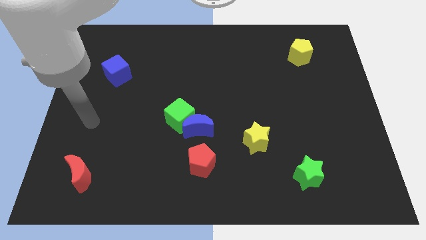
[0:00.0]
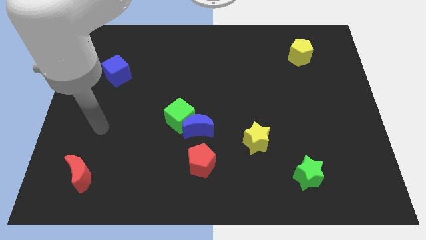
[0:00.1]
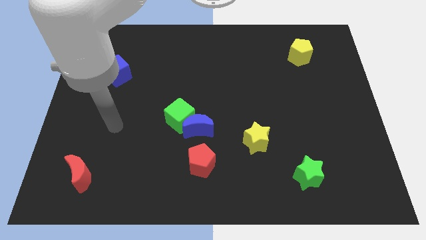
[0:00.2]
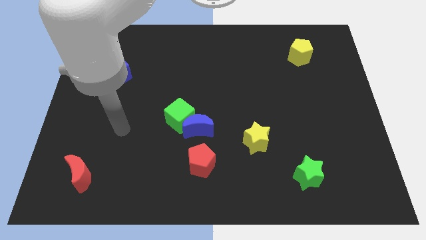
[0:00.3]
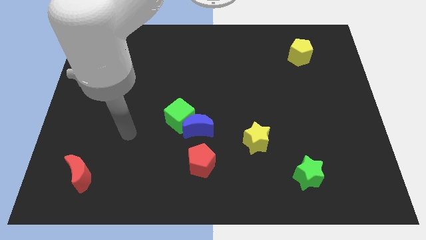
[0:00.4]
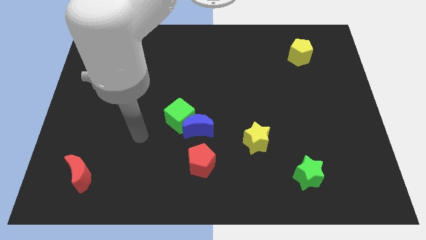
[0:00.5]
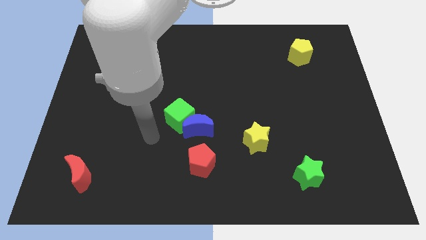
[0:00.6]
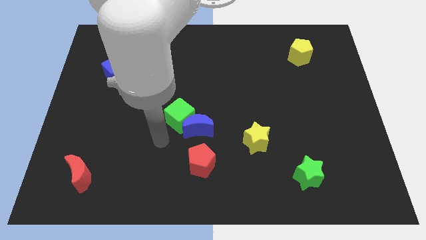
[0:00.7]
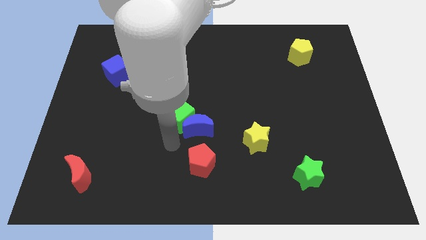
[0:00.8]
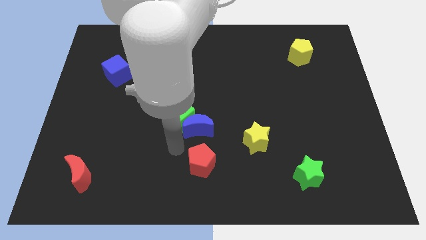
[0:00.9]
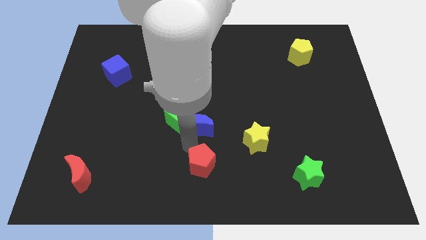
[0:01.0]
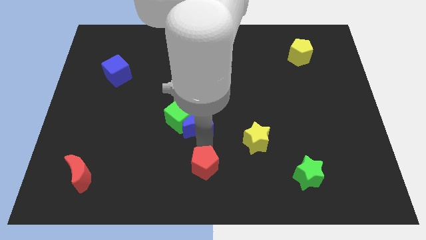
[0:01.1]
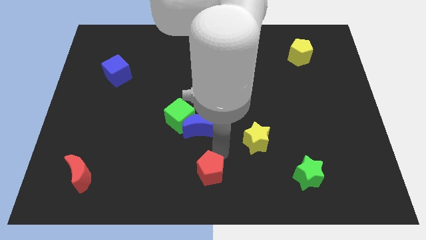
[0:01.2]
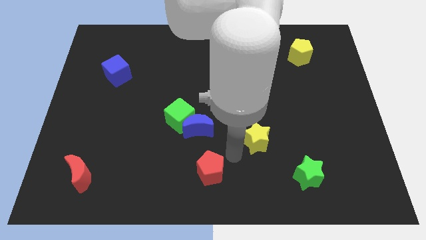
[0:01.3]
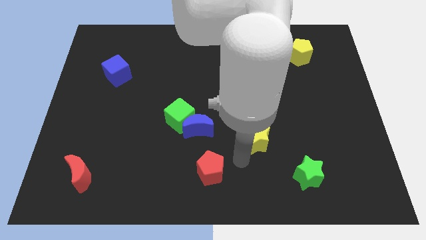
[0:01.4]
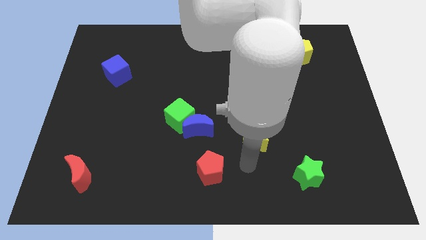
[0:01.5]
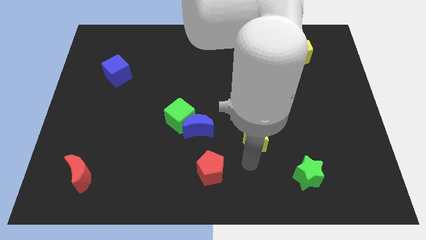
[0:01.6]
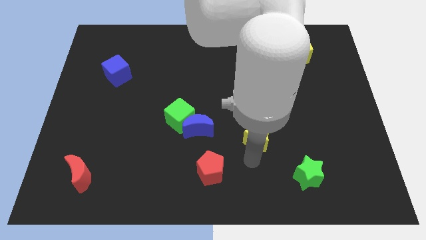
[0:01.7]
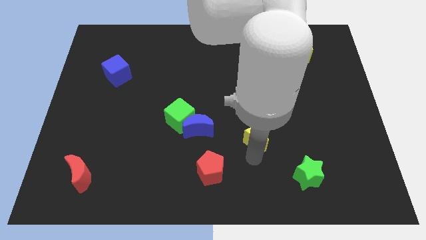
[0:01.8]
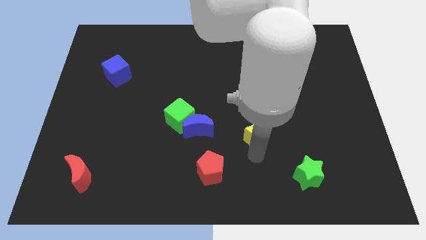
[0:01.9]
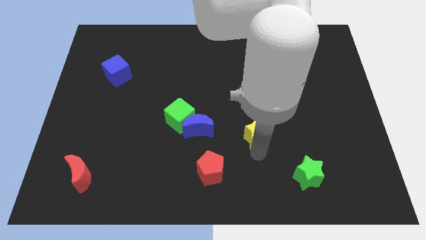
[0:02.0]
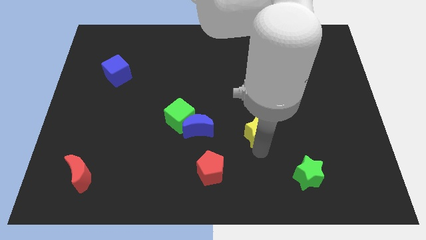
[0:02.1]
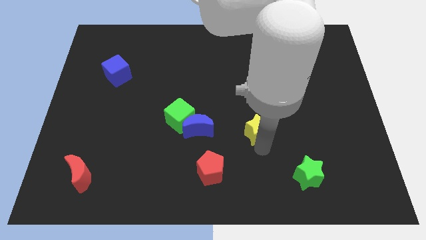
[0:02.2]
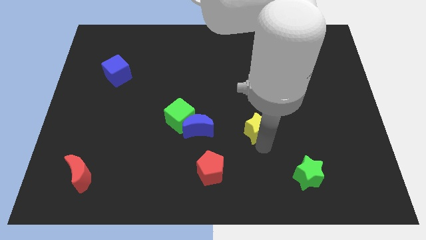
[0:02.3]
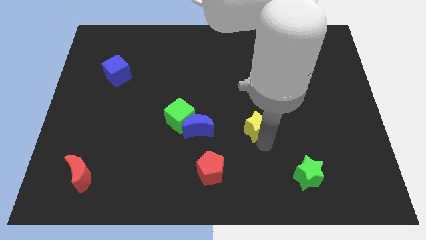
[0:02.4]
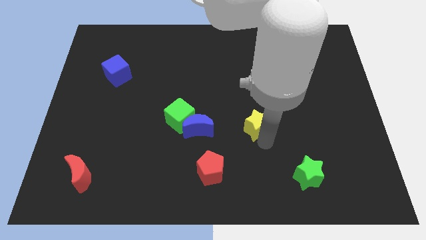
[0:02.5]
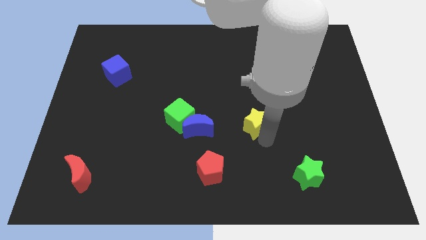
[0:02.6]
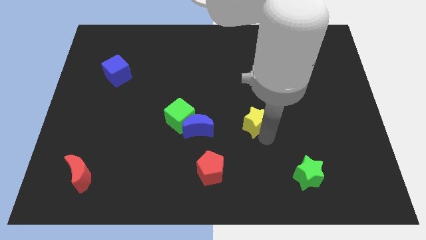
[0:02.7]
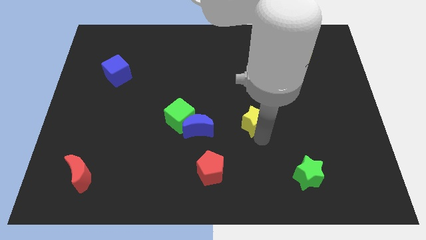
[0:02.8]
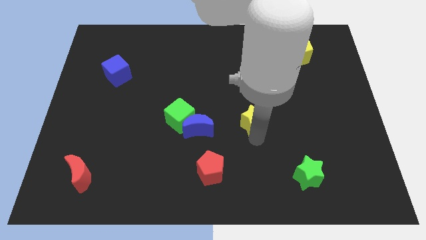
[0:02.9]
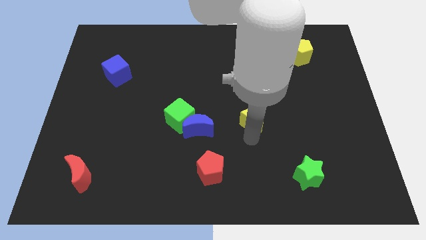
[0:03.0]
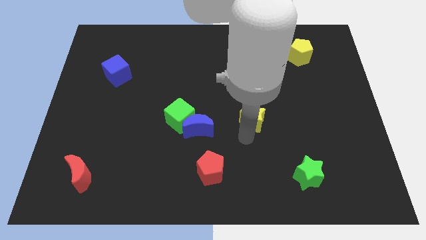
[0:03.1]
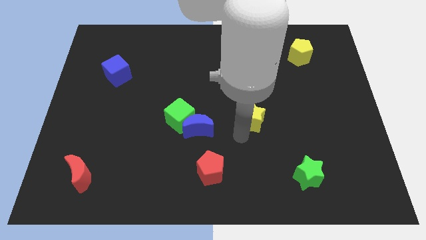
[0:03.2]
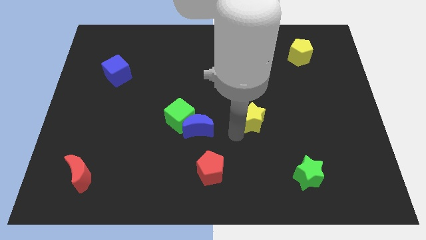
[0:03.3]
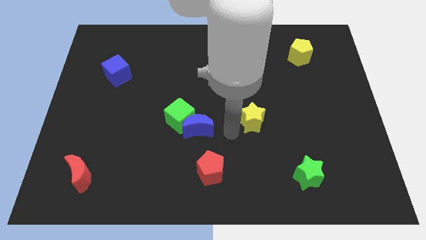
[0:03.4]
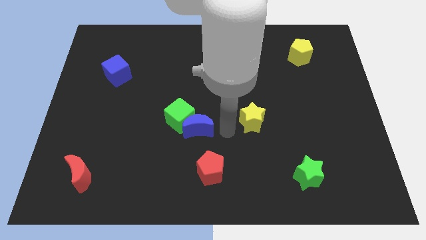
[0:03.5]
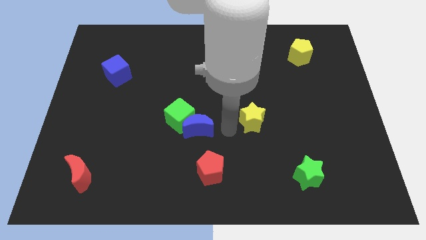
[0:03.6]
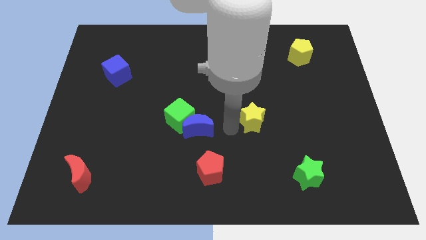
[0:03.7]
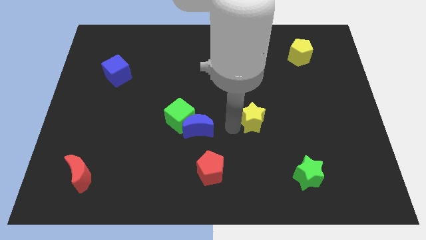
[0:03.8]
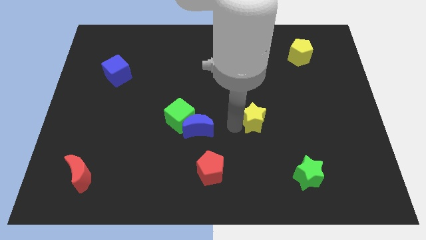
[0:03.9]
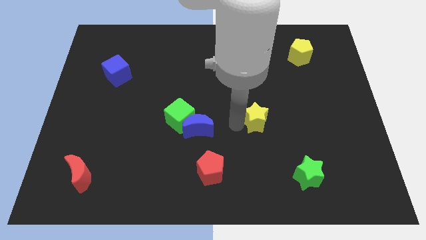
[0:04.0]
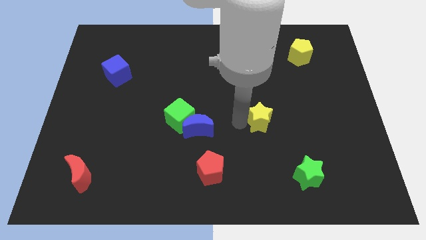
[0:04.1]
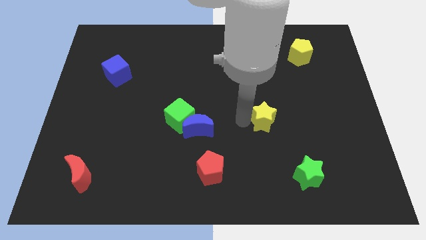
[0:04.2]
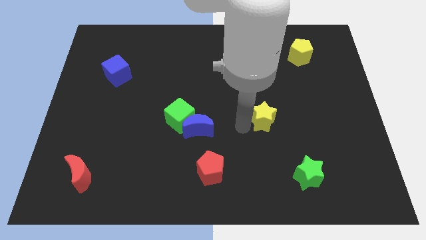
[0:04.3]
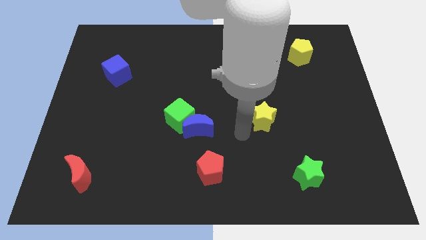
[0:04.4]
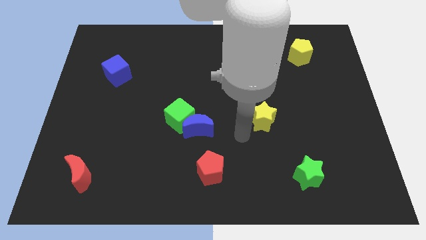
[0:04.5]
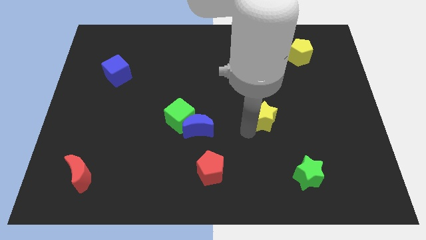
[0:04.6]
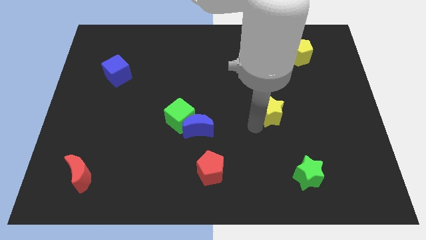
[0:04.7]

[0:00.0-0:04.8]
slide the yellow star up and then right slightly

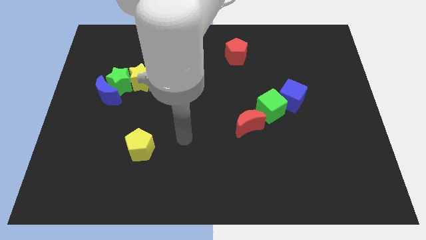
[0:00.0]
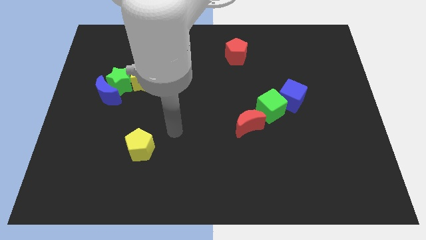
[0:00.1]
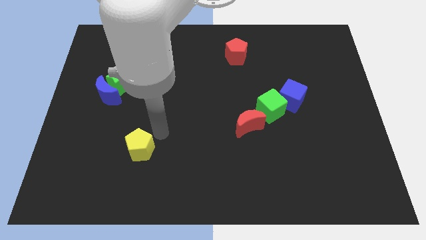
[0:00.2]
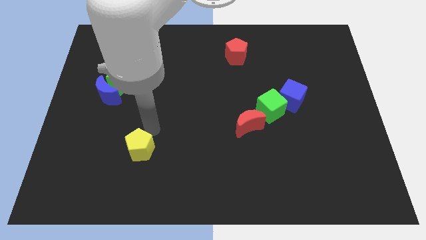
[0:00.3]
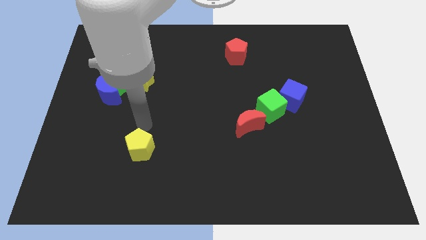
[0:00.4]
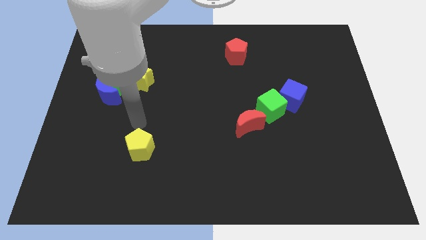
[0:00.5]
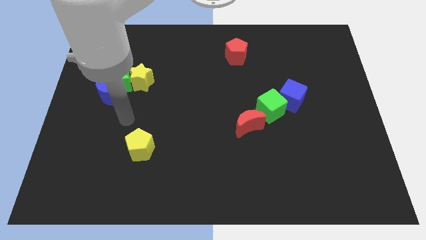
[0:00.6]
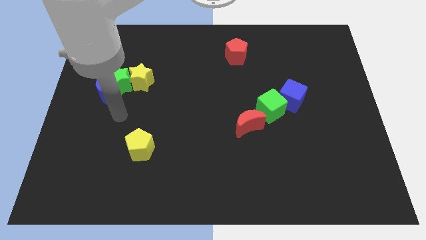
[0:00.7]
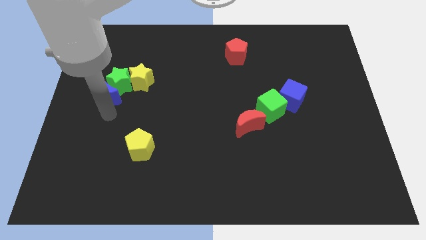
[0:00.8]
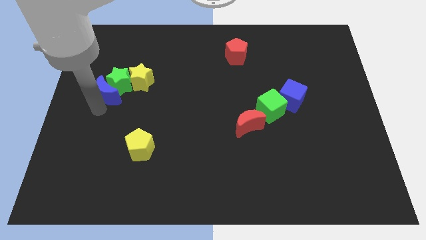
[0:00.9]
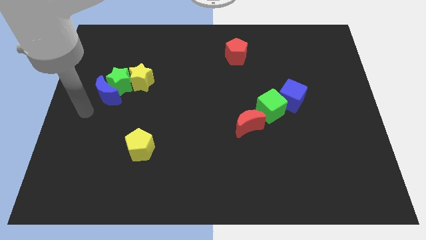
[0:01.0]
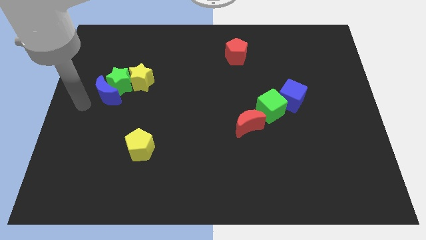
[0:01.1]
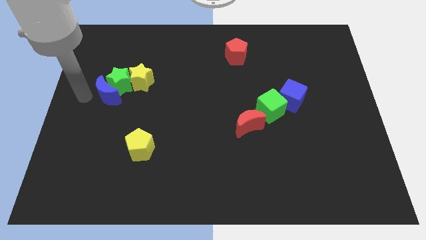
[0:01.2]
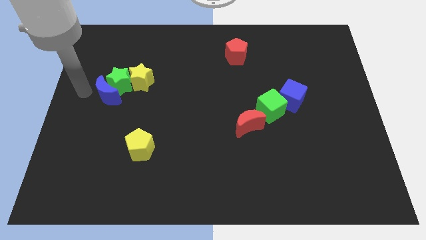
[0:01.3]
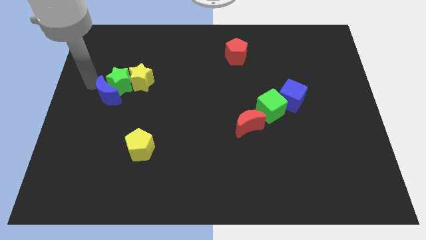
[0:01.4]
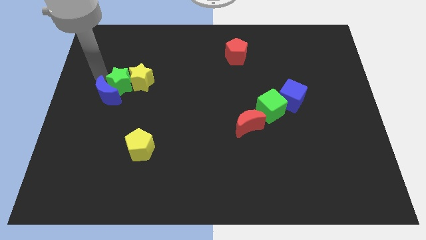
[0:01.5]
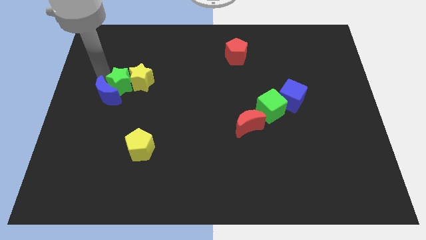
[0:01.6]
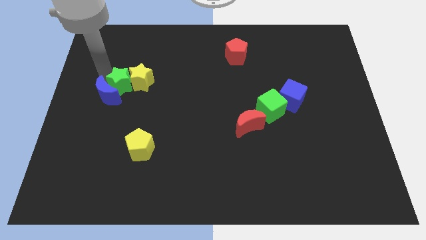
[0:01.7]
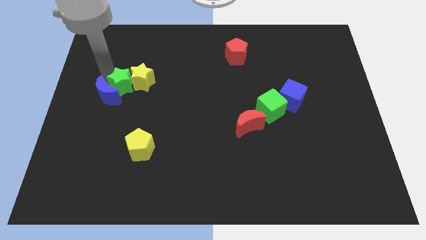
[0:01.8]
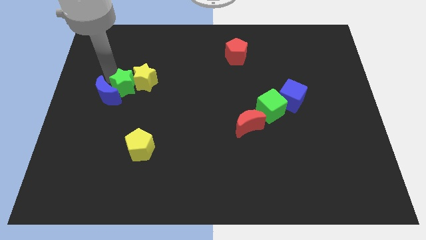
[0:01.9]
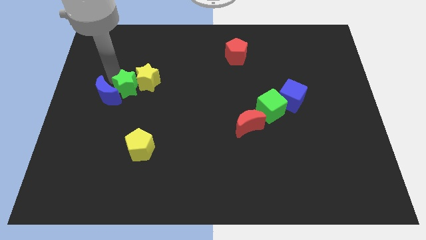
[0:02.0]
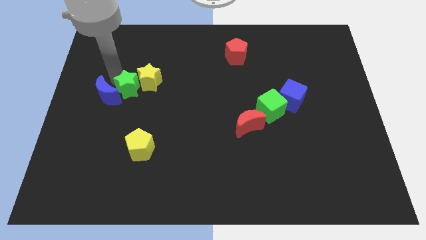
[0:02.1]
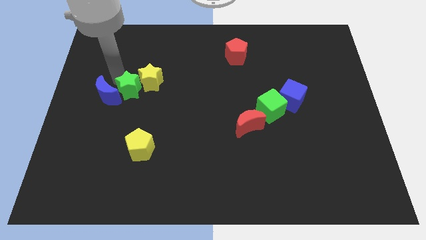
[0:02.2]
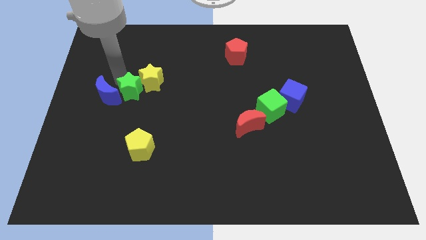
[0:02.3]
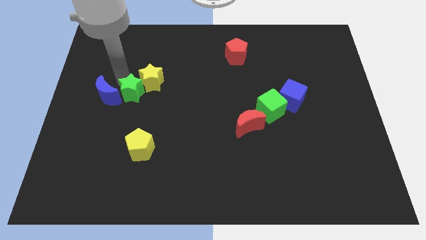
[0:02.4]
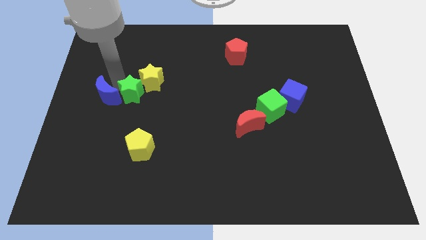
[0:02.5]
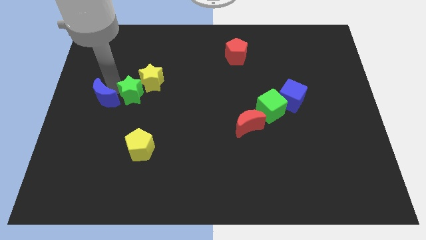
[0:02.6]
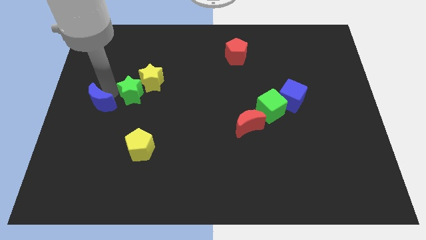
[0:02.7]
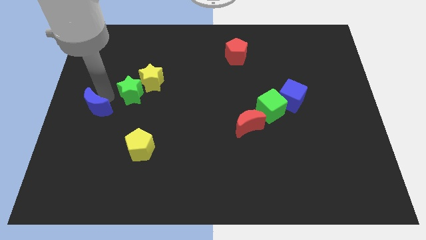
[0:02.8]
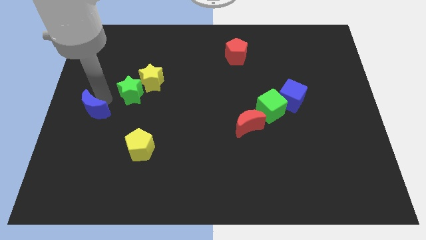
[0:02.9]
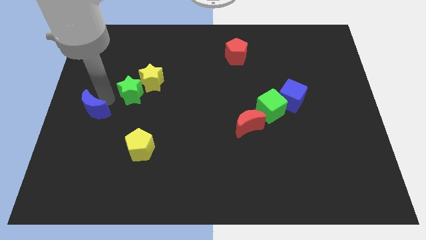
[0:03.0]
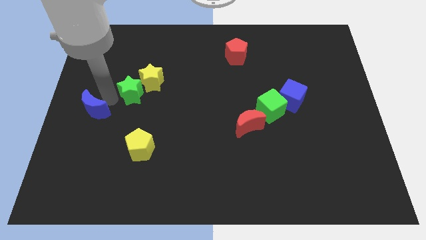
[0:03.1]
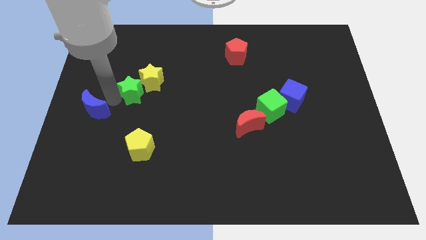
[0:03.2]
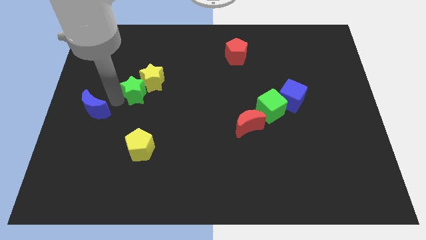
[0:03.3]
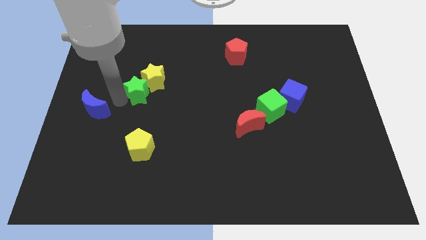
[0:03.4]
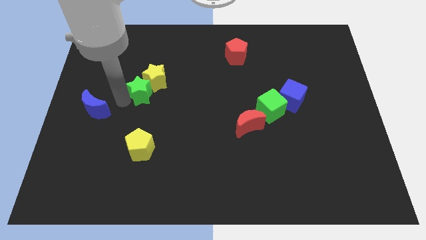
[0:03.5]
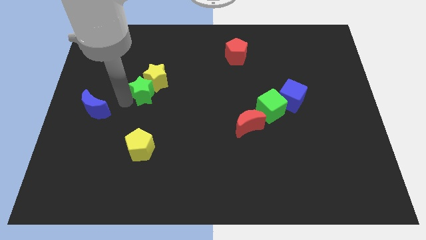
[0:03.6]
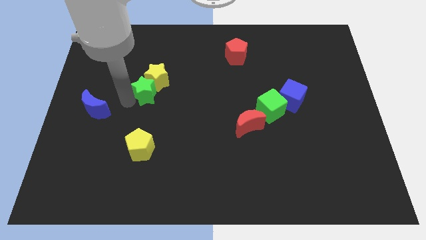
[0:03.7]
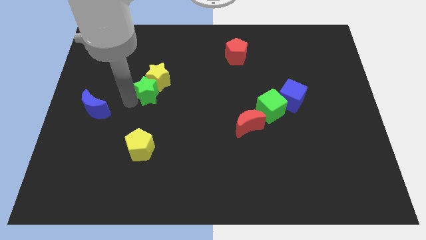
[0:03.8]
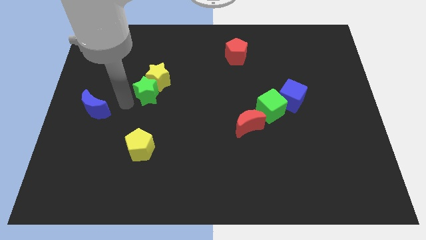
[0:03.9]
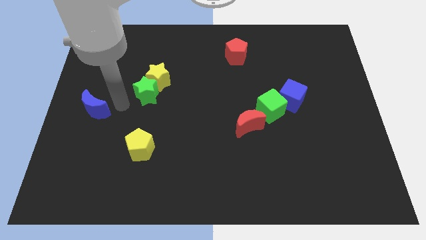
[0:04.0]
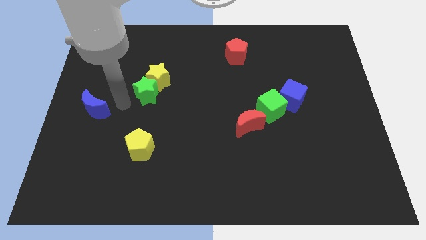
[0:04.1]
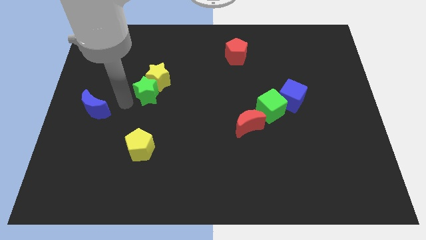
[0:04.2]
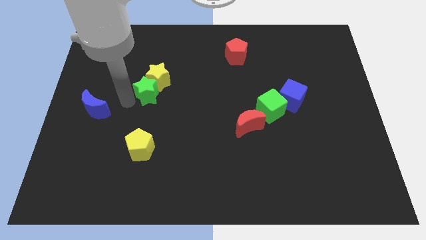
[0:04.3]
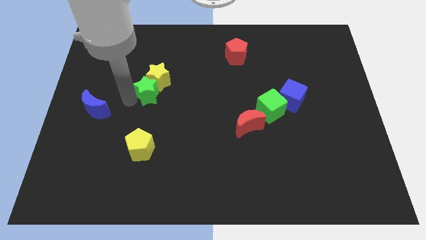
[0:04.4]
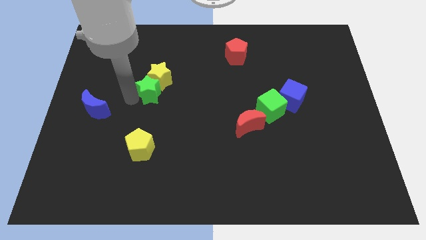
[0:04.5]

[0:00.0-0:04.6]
move the green star to the right a bit
